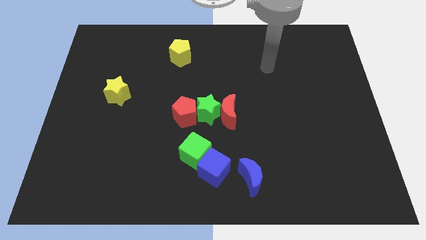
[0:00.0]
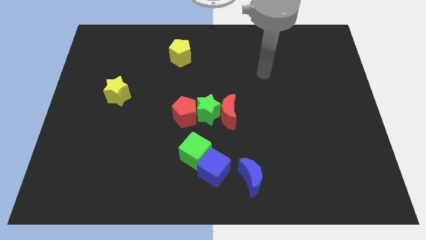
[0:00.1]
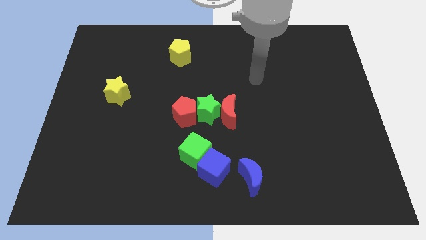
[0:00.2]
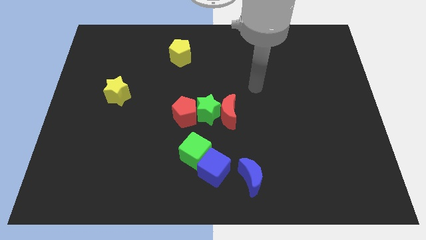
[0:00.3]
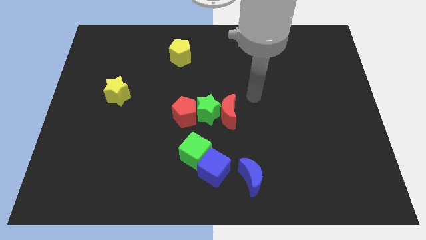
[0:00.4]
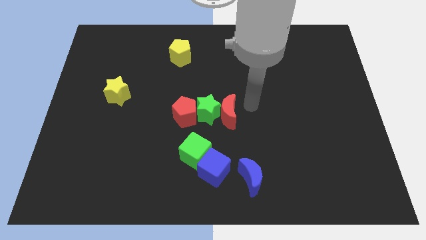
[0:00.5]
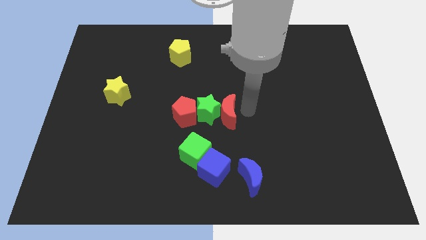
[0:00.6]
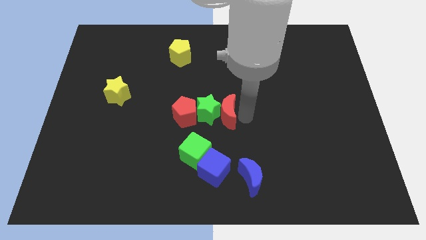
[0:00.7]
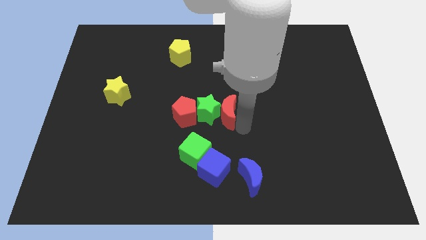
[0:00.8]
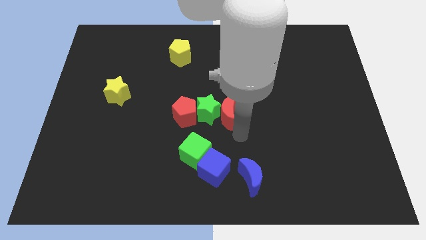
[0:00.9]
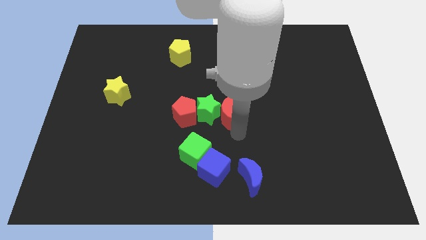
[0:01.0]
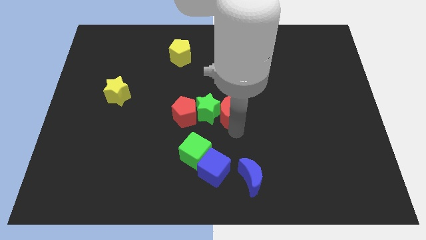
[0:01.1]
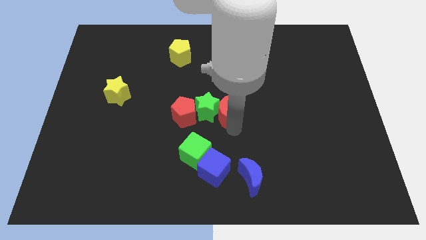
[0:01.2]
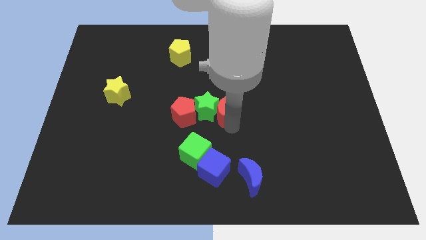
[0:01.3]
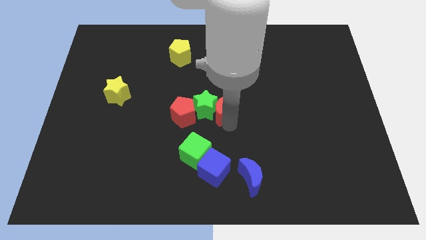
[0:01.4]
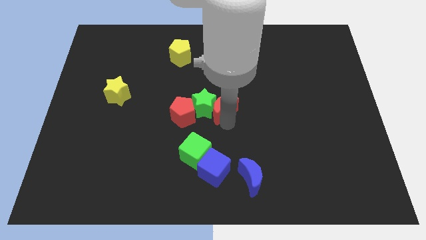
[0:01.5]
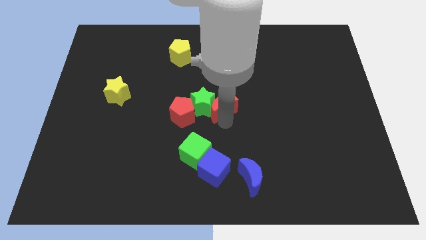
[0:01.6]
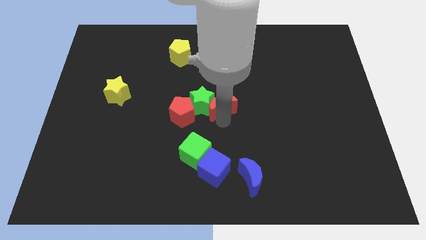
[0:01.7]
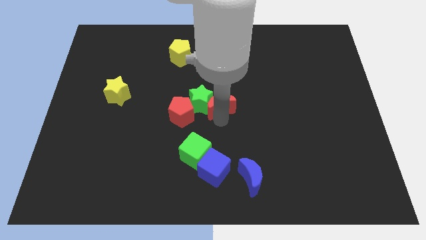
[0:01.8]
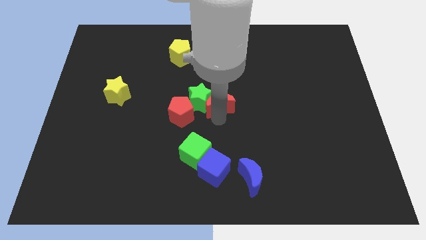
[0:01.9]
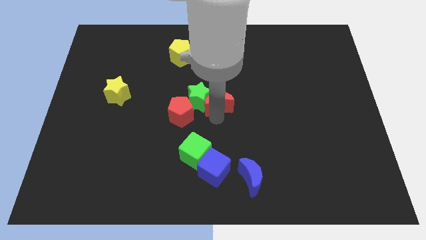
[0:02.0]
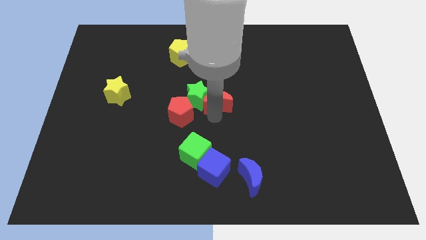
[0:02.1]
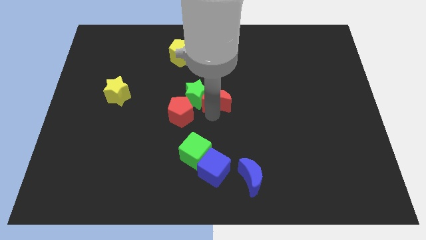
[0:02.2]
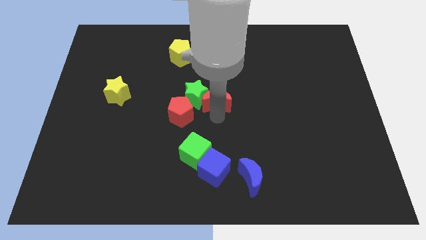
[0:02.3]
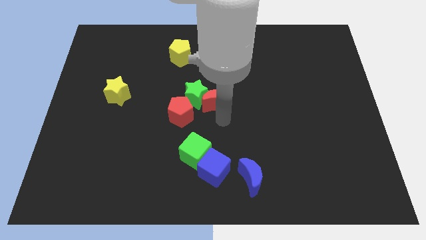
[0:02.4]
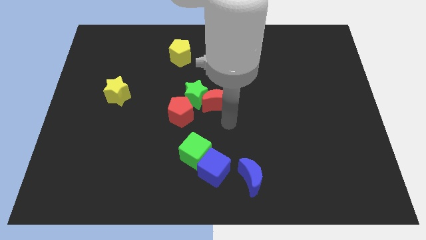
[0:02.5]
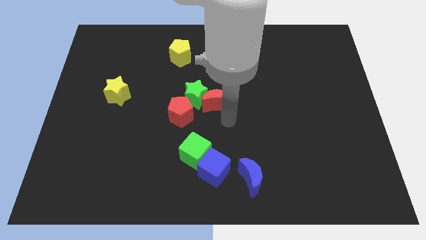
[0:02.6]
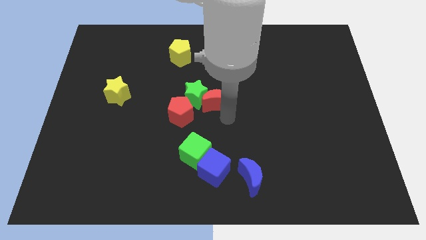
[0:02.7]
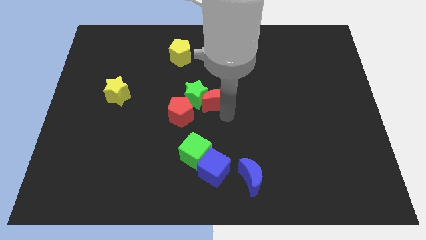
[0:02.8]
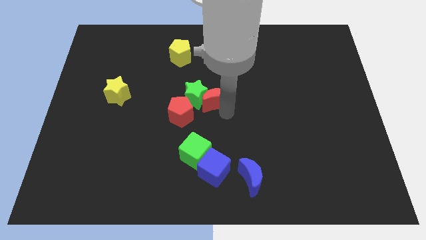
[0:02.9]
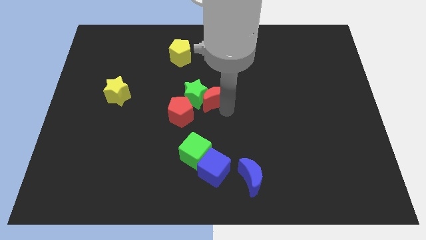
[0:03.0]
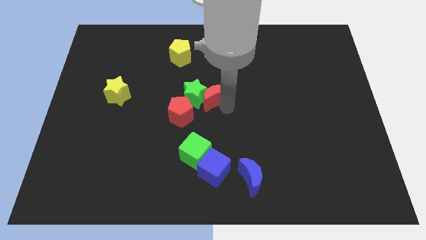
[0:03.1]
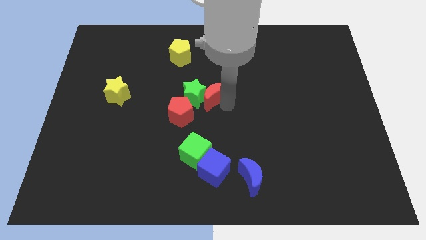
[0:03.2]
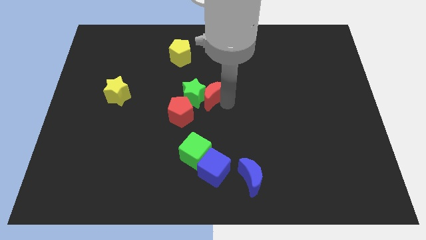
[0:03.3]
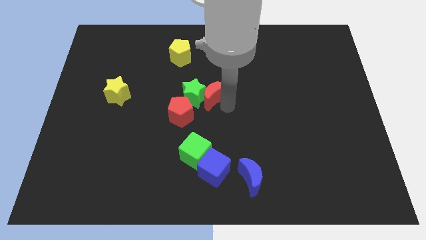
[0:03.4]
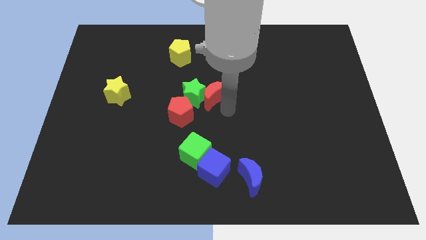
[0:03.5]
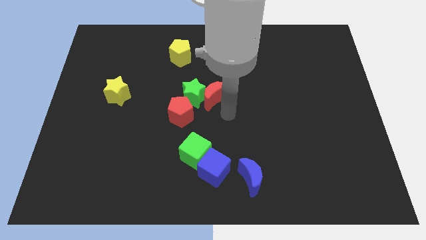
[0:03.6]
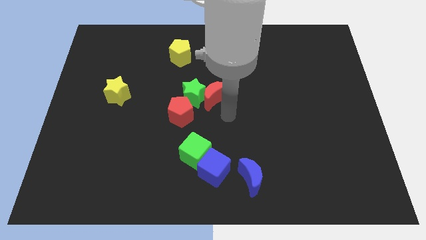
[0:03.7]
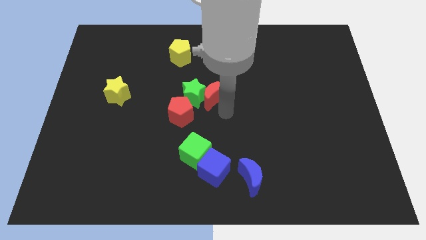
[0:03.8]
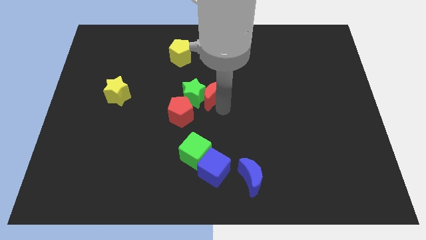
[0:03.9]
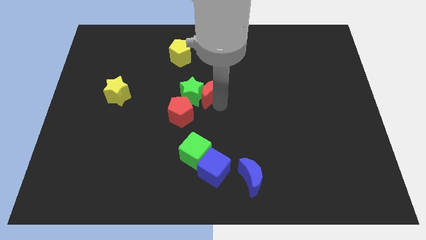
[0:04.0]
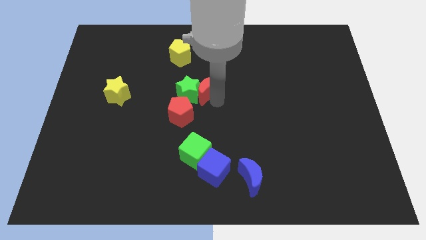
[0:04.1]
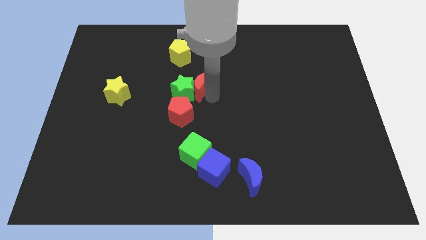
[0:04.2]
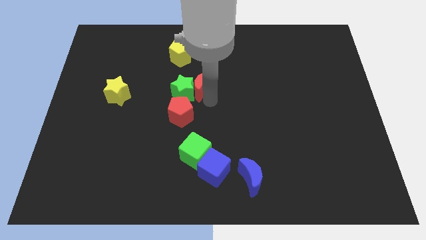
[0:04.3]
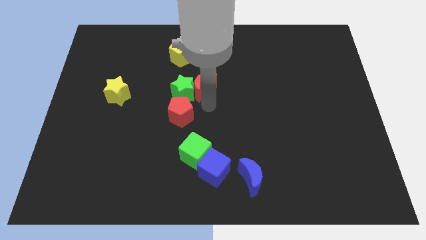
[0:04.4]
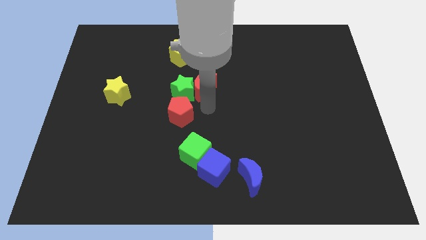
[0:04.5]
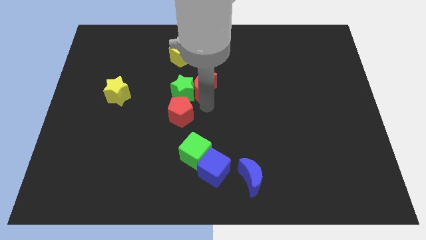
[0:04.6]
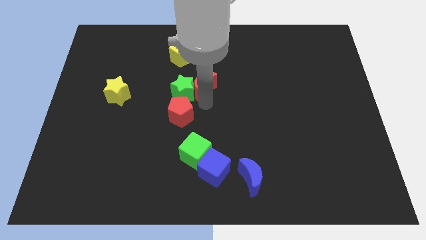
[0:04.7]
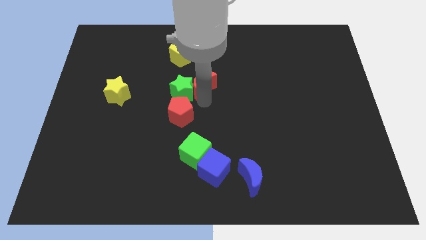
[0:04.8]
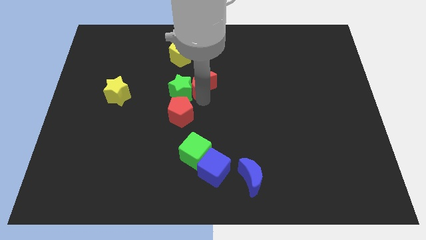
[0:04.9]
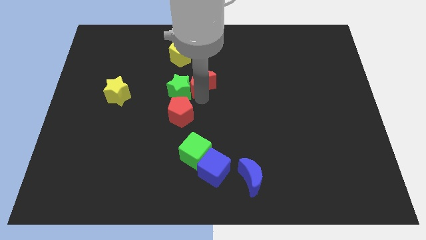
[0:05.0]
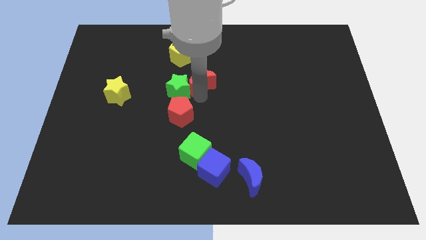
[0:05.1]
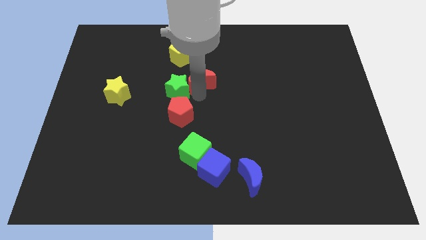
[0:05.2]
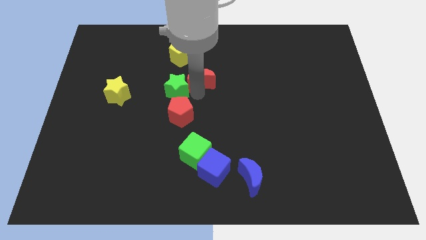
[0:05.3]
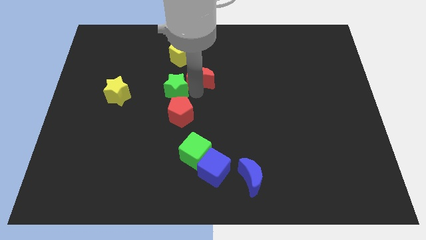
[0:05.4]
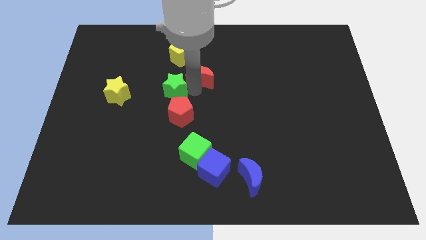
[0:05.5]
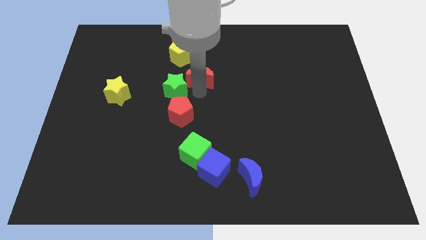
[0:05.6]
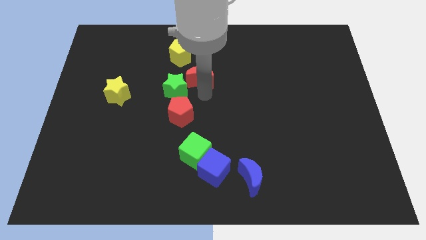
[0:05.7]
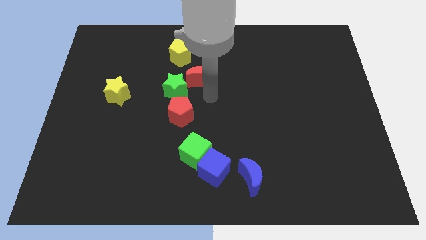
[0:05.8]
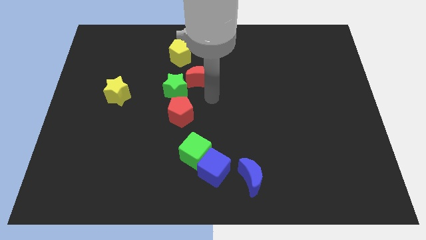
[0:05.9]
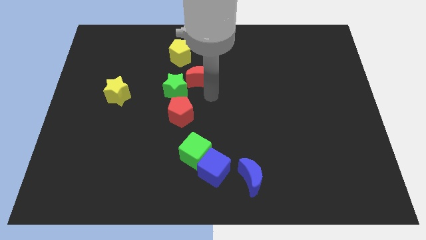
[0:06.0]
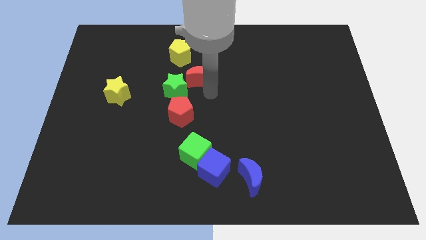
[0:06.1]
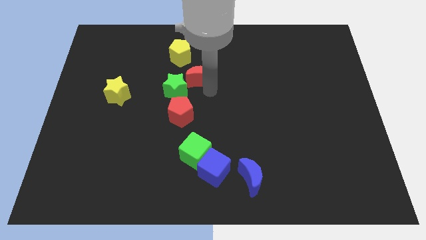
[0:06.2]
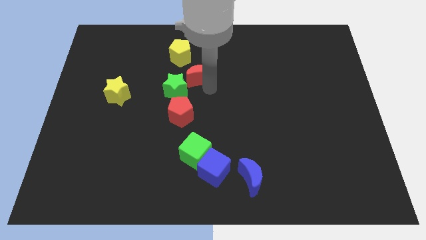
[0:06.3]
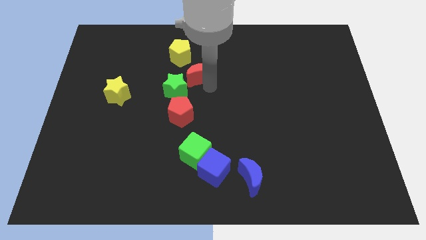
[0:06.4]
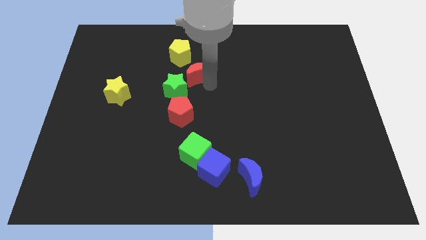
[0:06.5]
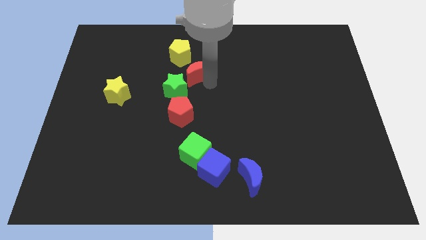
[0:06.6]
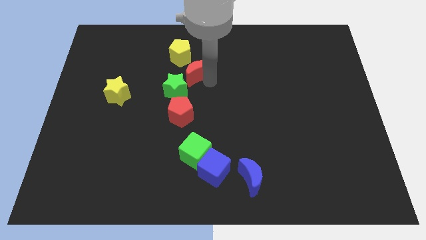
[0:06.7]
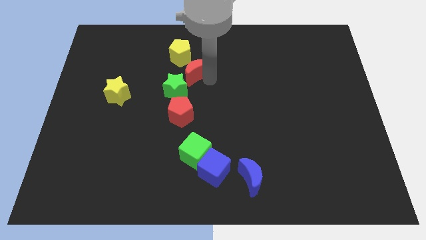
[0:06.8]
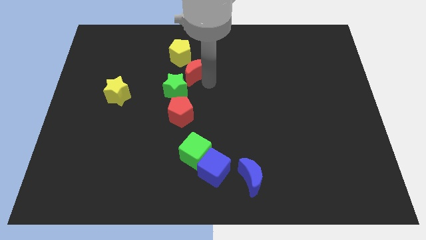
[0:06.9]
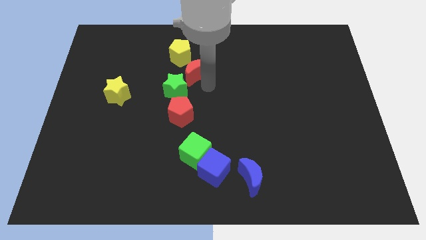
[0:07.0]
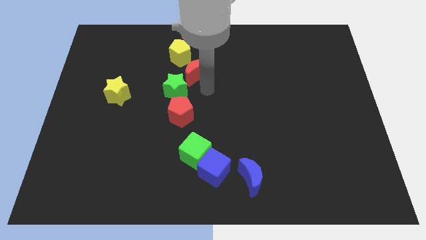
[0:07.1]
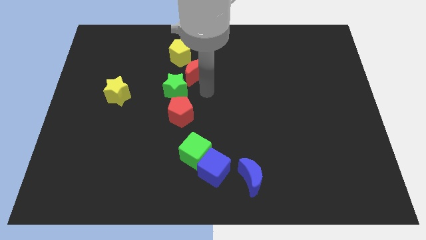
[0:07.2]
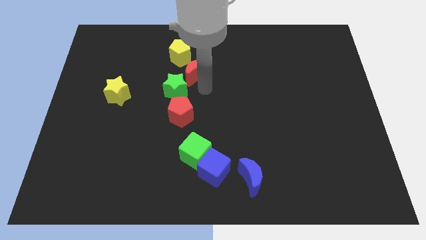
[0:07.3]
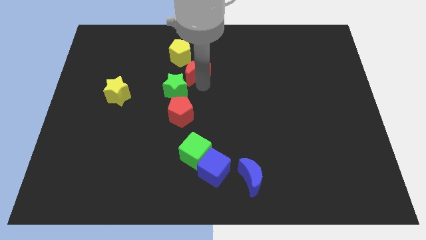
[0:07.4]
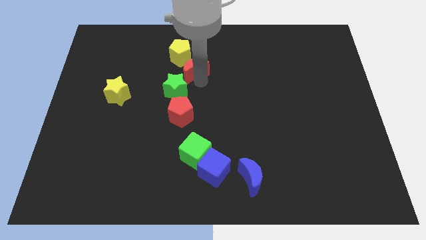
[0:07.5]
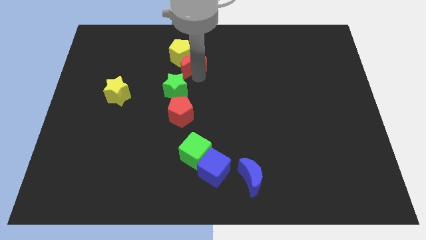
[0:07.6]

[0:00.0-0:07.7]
move the red moon towards the yellow pentagon

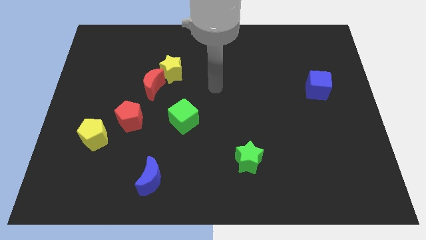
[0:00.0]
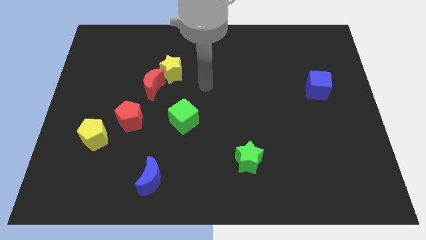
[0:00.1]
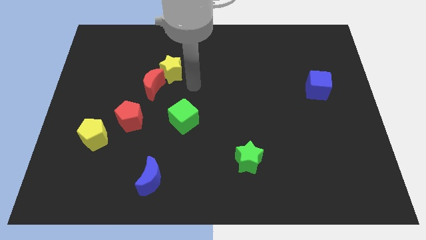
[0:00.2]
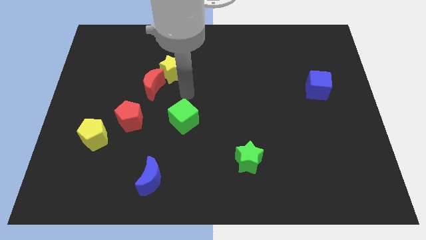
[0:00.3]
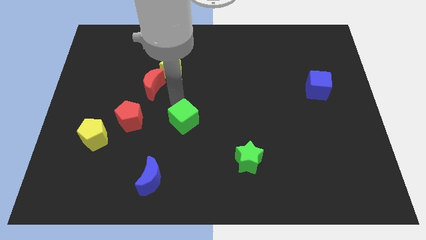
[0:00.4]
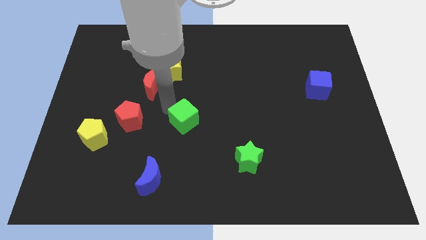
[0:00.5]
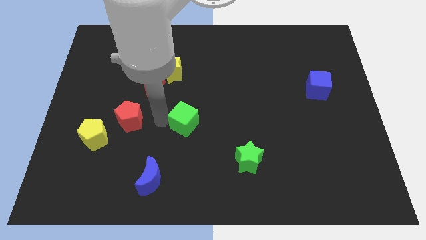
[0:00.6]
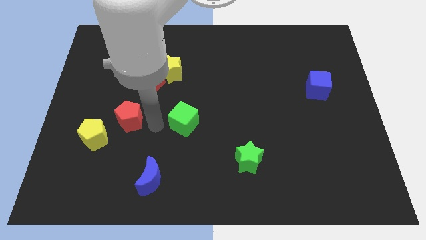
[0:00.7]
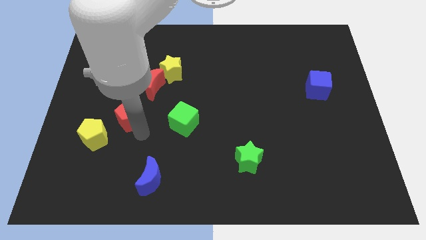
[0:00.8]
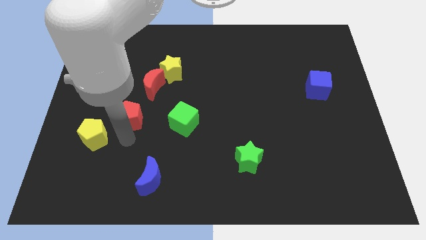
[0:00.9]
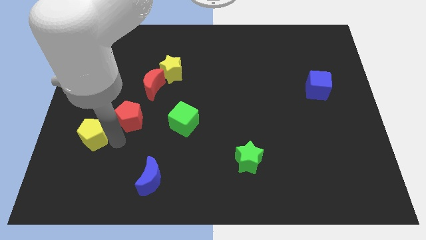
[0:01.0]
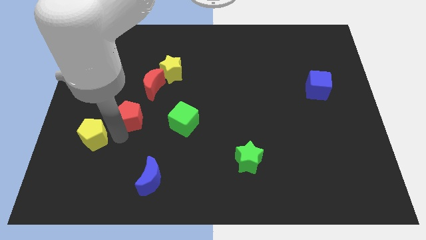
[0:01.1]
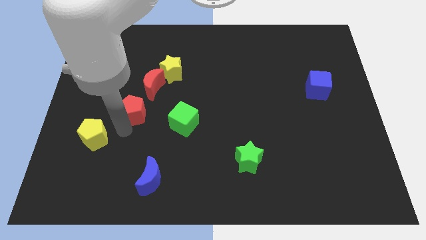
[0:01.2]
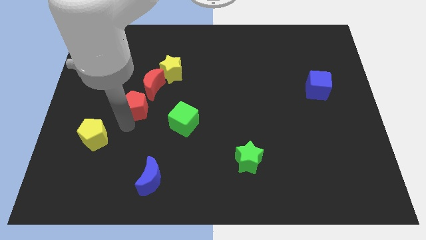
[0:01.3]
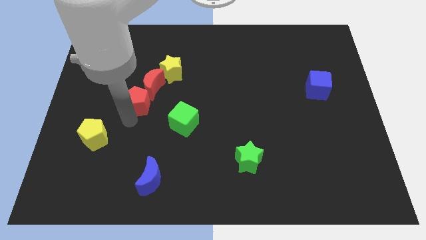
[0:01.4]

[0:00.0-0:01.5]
put the red pentagon towards the red moon
